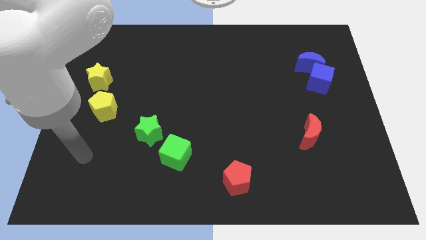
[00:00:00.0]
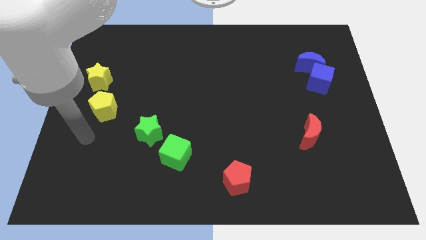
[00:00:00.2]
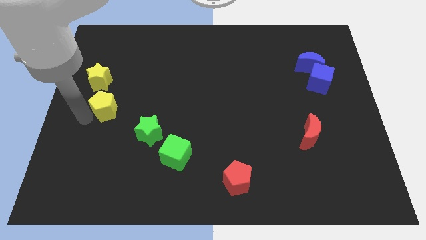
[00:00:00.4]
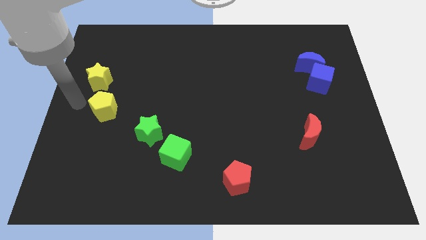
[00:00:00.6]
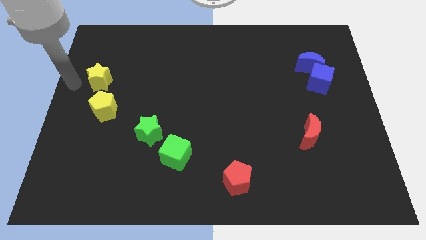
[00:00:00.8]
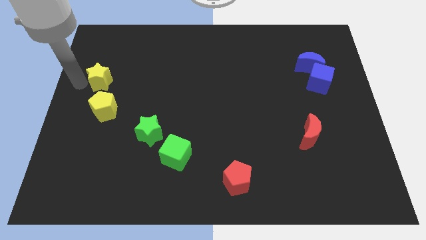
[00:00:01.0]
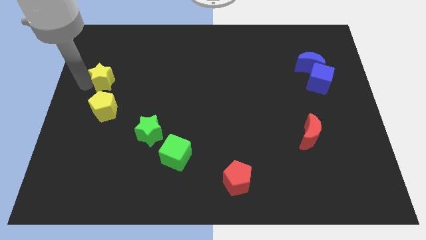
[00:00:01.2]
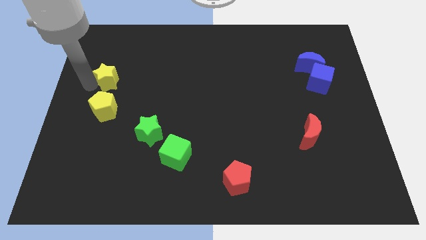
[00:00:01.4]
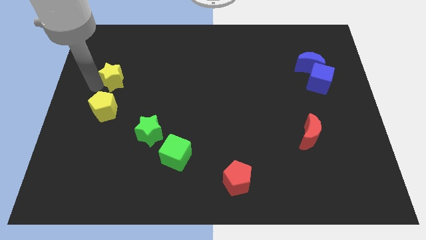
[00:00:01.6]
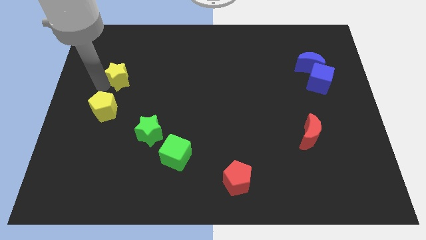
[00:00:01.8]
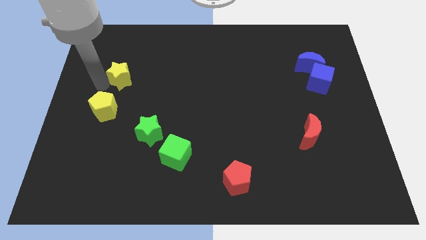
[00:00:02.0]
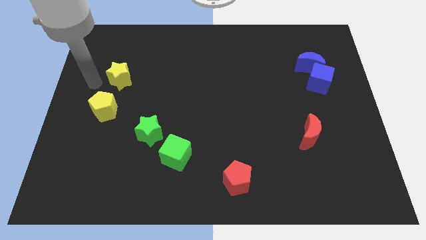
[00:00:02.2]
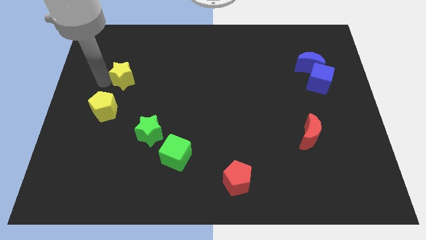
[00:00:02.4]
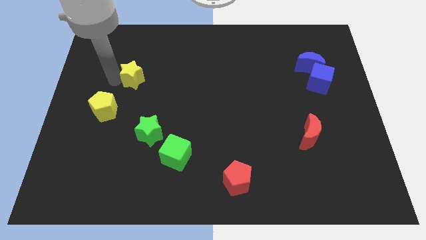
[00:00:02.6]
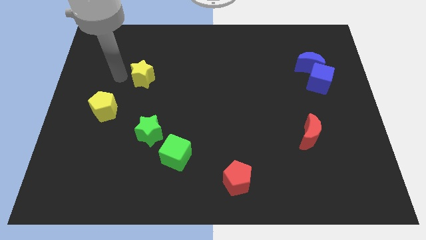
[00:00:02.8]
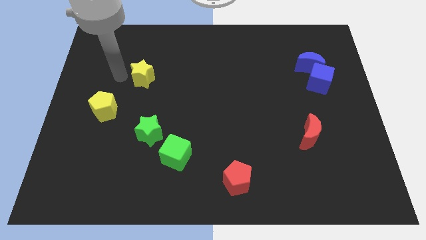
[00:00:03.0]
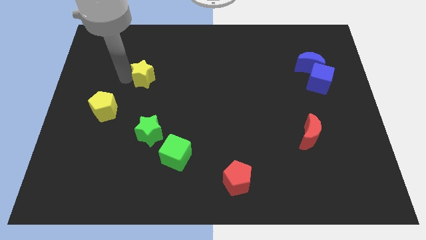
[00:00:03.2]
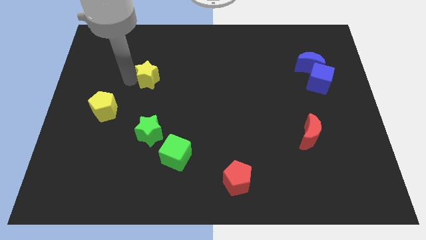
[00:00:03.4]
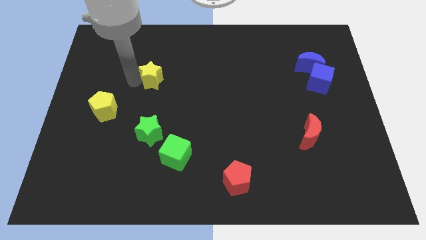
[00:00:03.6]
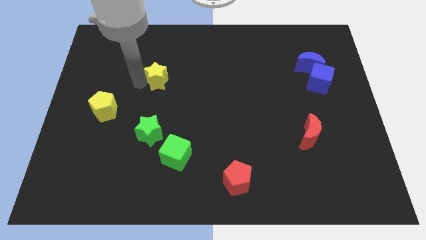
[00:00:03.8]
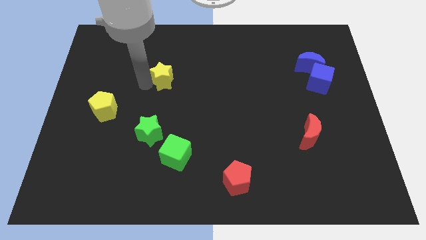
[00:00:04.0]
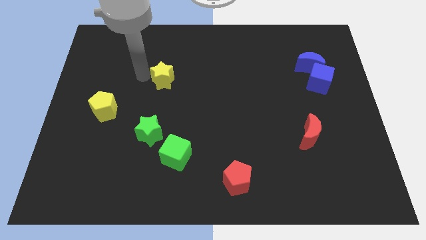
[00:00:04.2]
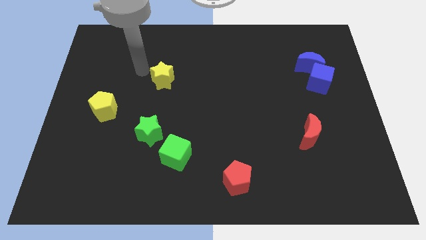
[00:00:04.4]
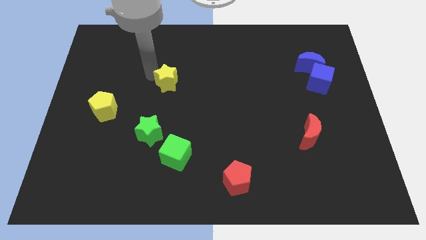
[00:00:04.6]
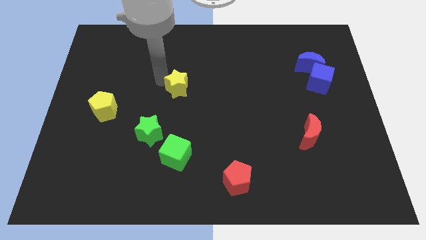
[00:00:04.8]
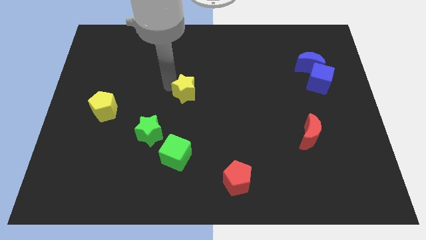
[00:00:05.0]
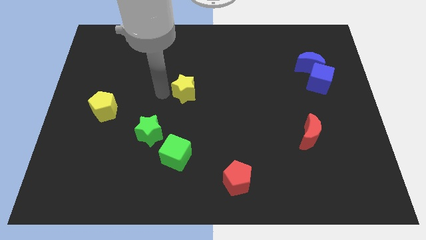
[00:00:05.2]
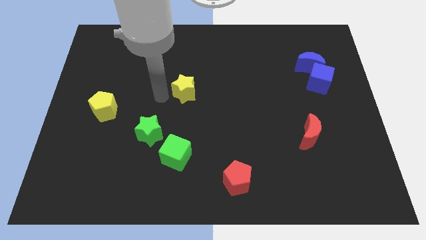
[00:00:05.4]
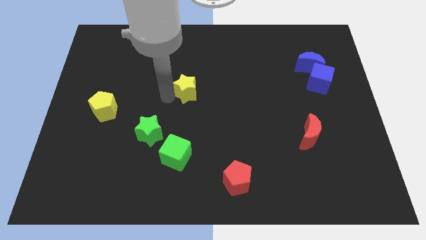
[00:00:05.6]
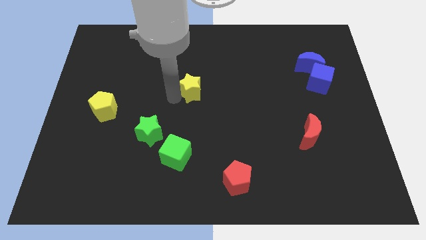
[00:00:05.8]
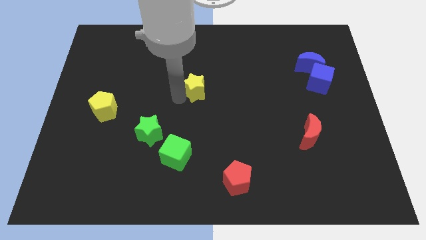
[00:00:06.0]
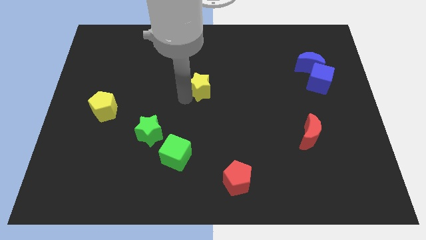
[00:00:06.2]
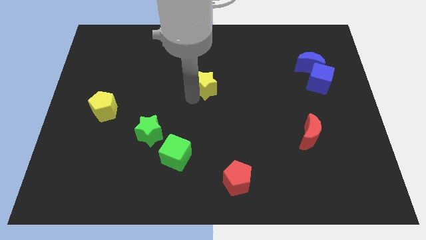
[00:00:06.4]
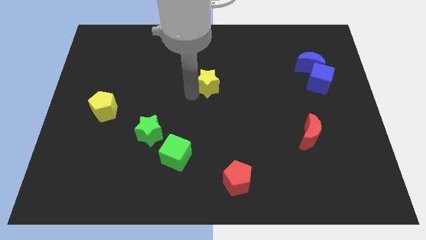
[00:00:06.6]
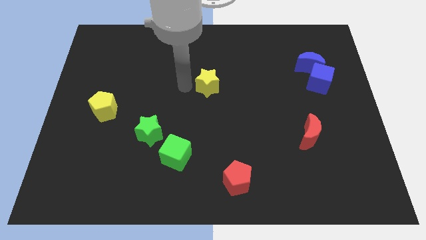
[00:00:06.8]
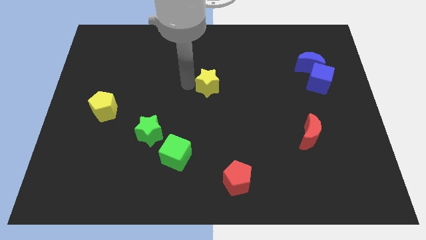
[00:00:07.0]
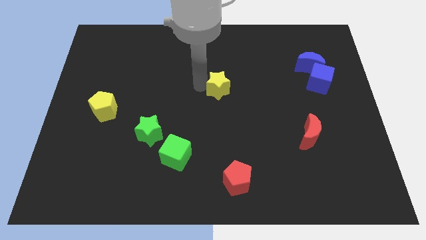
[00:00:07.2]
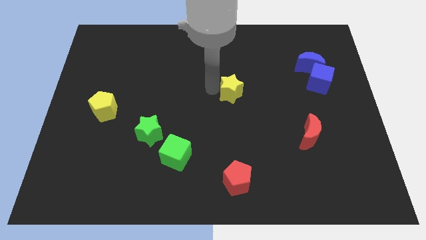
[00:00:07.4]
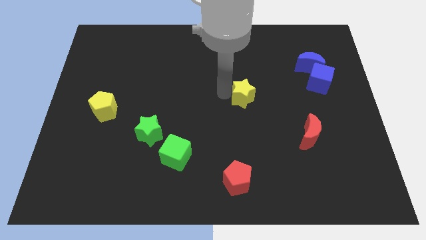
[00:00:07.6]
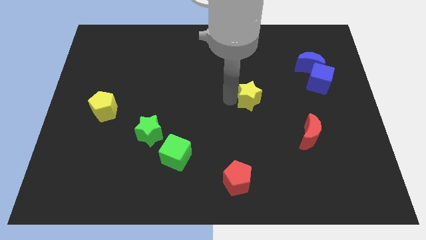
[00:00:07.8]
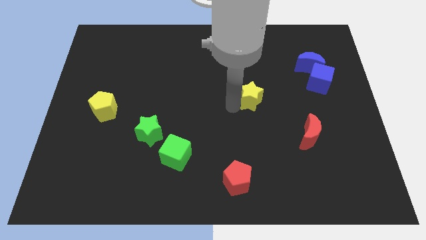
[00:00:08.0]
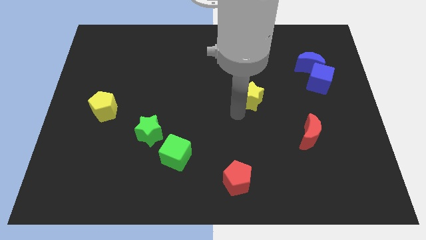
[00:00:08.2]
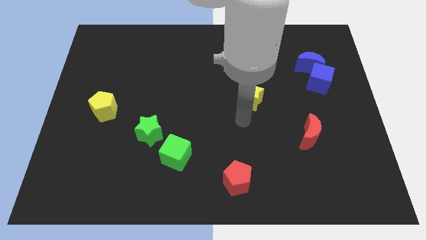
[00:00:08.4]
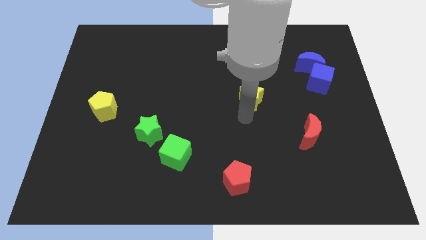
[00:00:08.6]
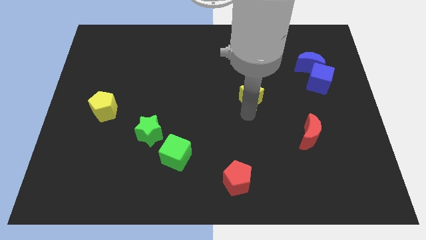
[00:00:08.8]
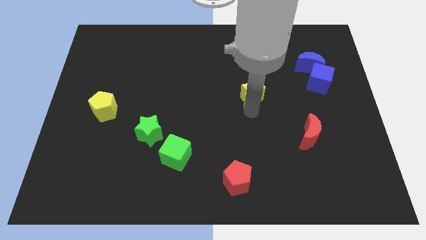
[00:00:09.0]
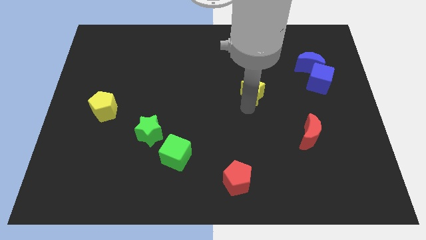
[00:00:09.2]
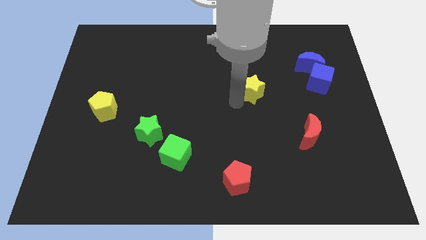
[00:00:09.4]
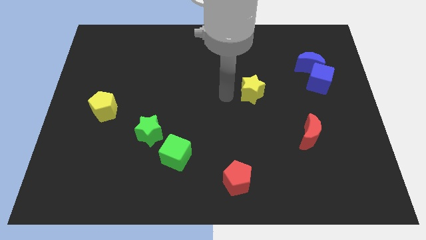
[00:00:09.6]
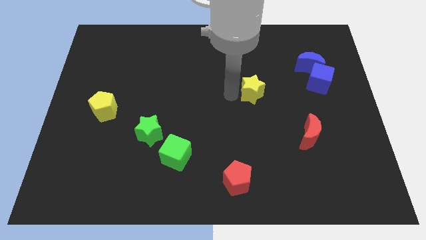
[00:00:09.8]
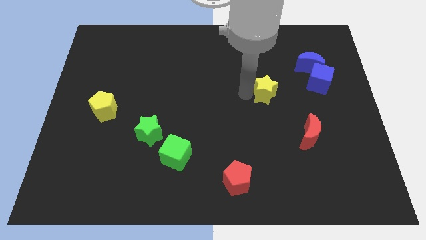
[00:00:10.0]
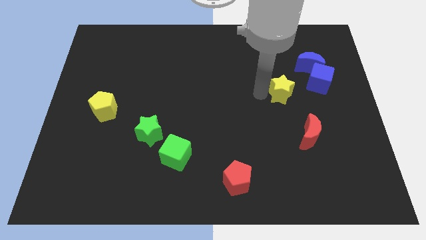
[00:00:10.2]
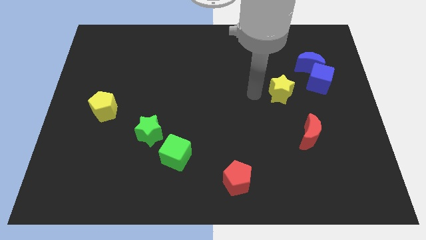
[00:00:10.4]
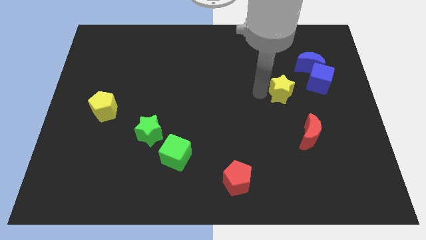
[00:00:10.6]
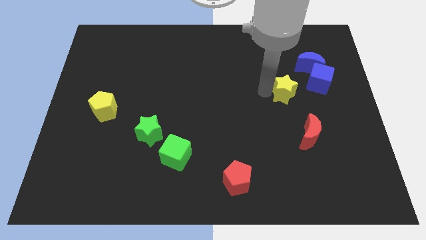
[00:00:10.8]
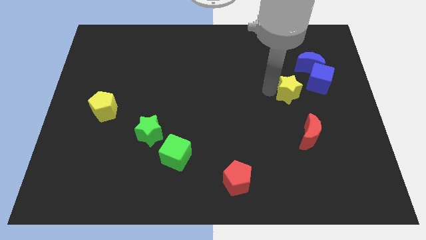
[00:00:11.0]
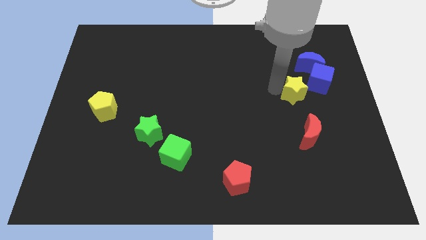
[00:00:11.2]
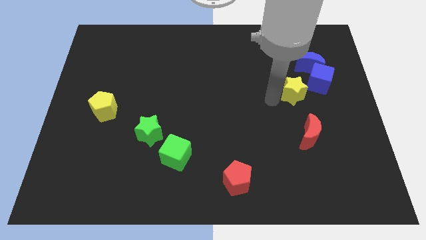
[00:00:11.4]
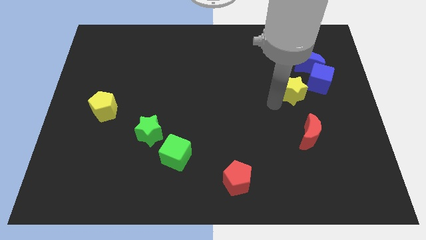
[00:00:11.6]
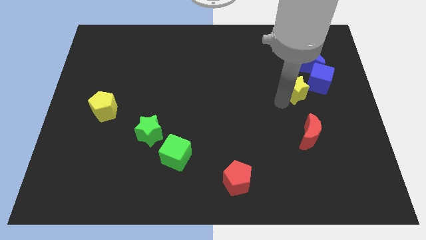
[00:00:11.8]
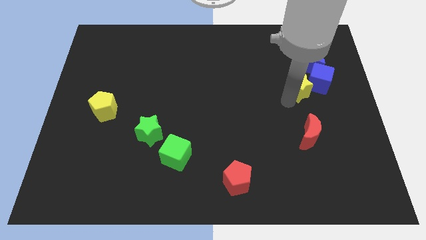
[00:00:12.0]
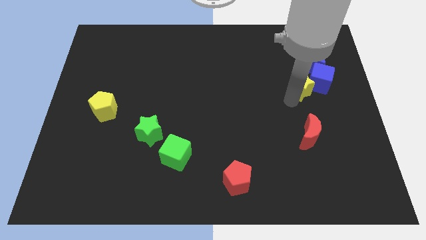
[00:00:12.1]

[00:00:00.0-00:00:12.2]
move the yellow star to the blue cube

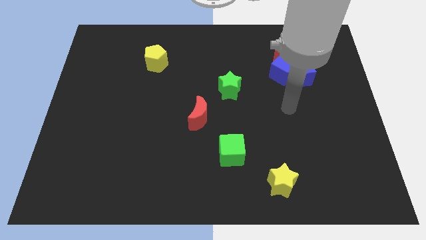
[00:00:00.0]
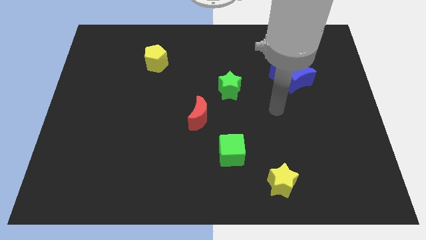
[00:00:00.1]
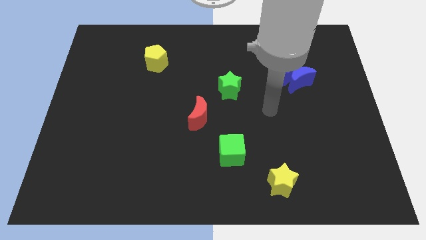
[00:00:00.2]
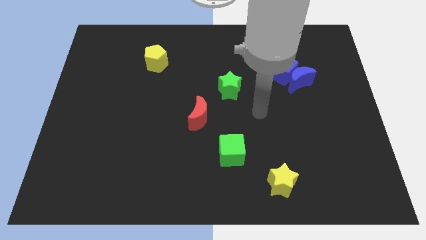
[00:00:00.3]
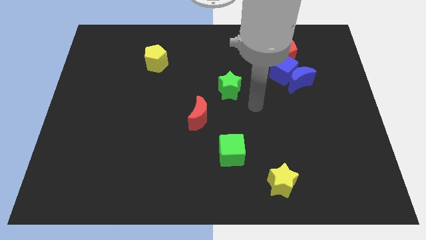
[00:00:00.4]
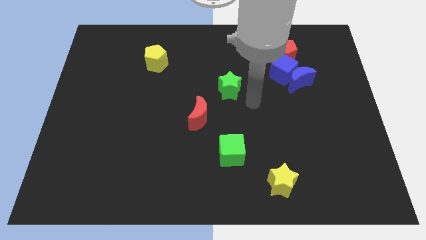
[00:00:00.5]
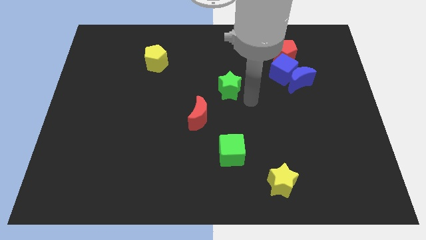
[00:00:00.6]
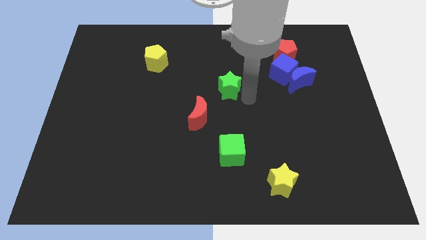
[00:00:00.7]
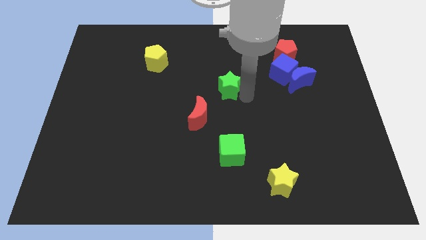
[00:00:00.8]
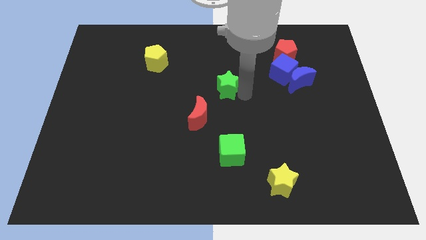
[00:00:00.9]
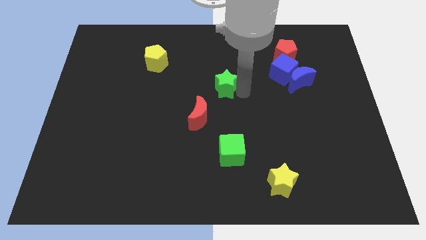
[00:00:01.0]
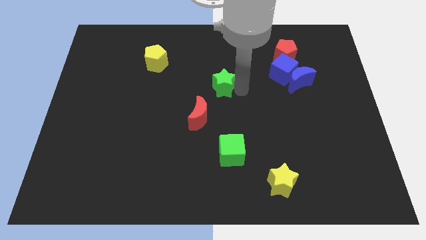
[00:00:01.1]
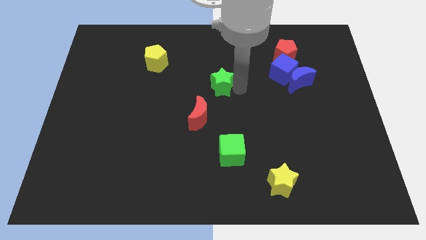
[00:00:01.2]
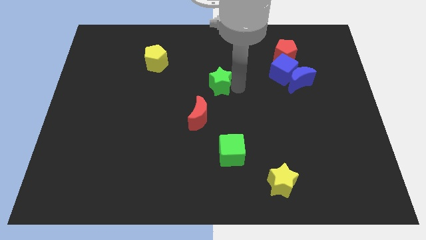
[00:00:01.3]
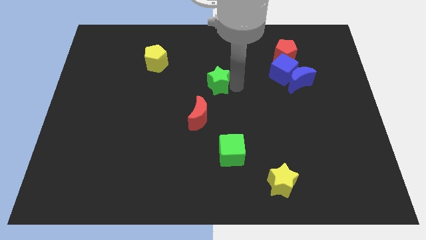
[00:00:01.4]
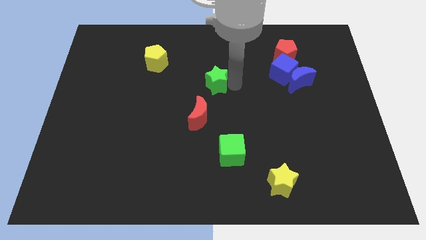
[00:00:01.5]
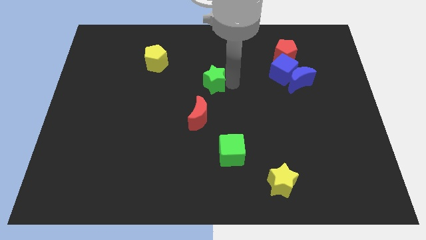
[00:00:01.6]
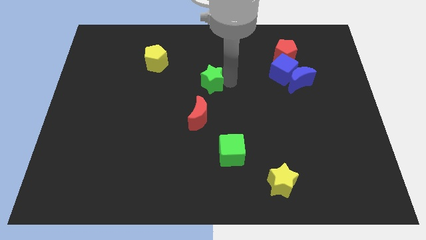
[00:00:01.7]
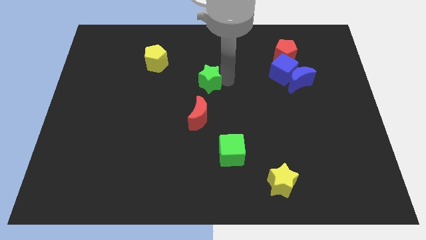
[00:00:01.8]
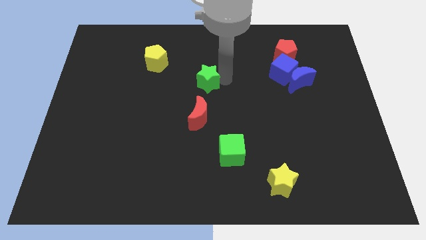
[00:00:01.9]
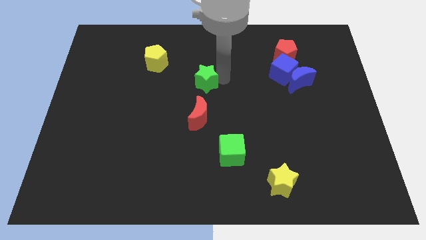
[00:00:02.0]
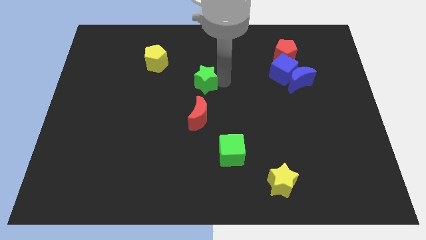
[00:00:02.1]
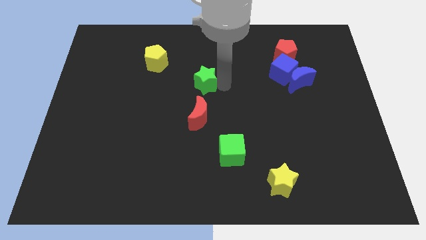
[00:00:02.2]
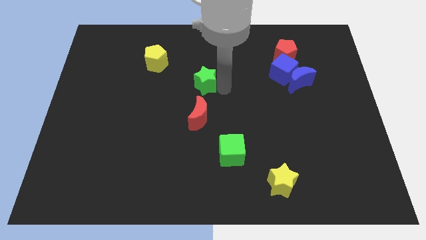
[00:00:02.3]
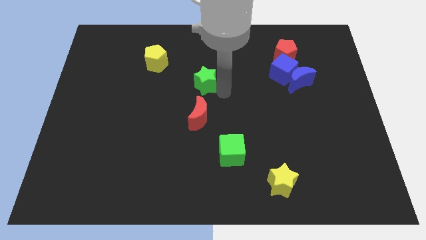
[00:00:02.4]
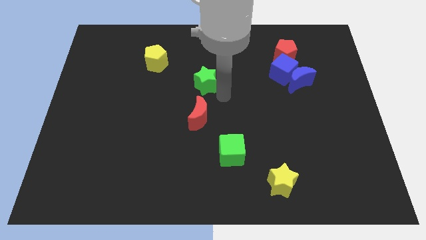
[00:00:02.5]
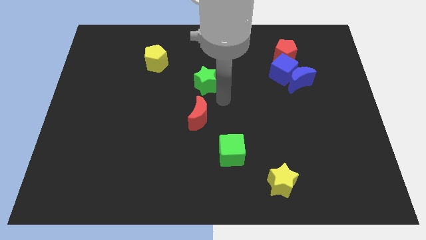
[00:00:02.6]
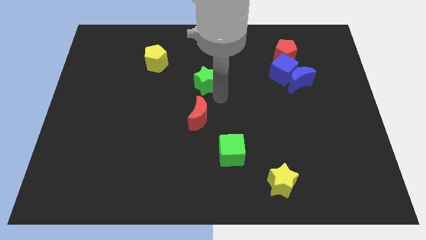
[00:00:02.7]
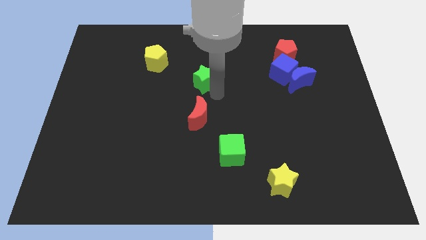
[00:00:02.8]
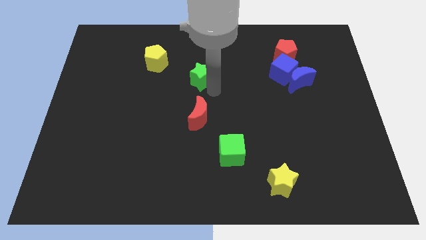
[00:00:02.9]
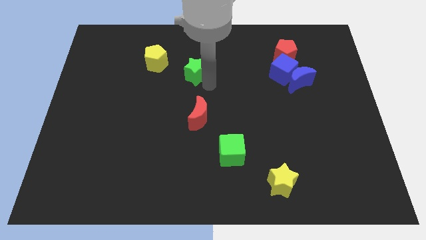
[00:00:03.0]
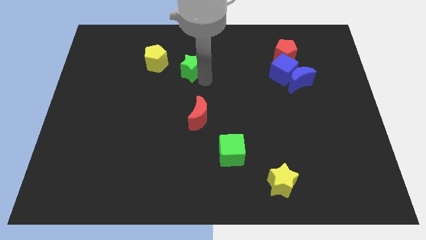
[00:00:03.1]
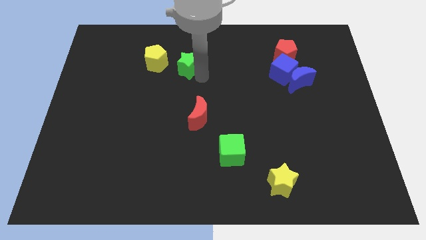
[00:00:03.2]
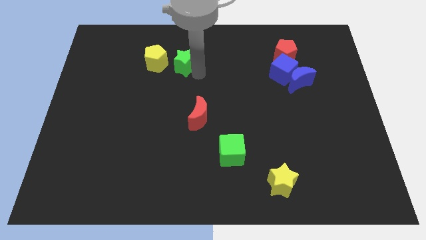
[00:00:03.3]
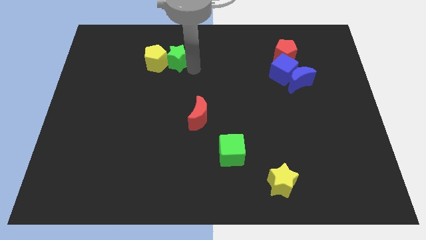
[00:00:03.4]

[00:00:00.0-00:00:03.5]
put the green star next to the yellow pentagon
